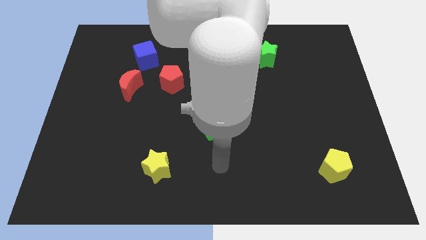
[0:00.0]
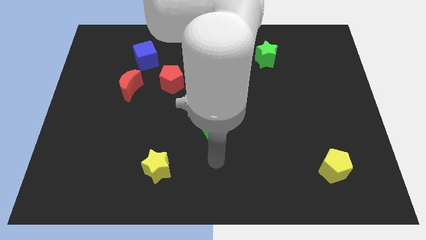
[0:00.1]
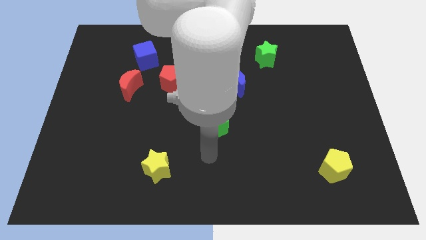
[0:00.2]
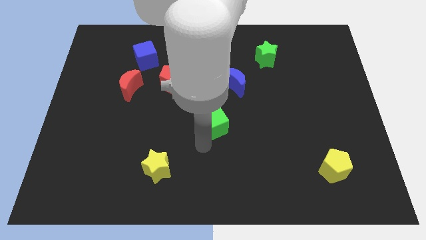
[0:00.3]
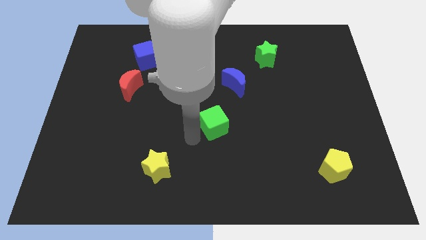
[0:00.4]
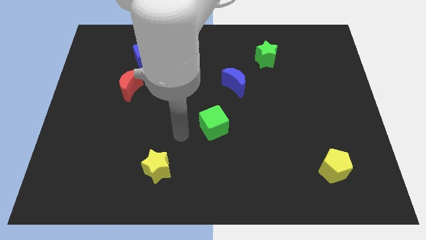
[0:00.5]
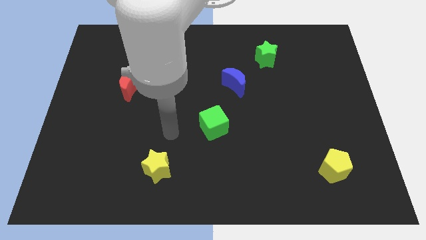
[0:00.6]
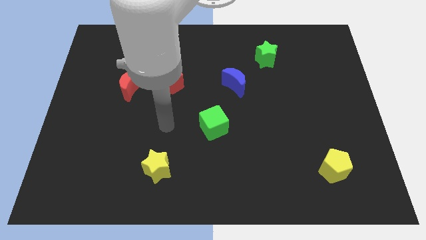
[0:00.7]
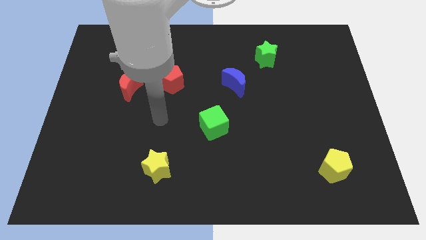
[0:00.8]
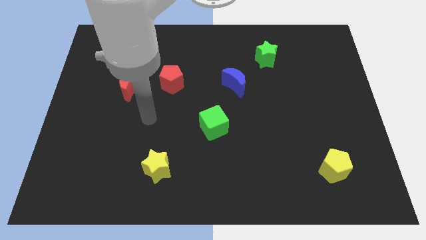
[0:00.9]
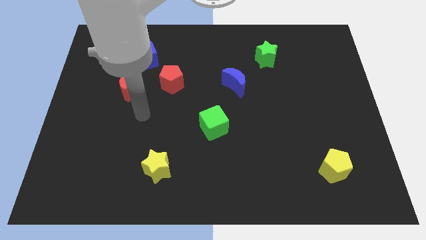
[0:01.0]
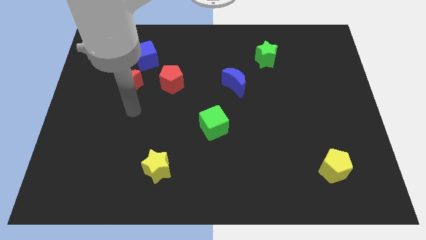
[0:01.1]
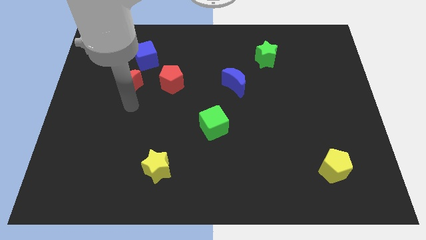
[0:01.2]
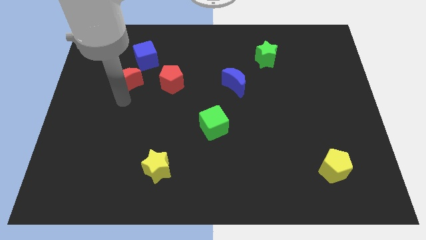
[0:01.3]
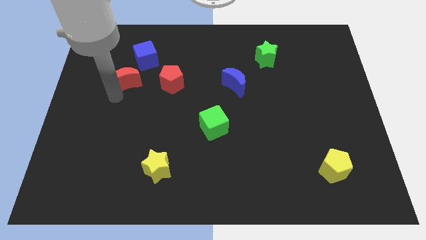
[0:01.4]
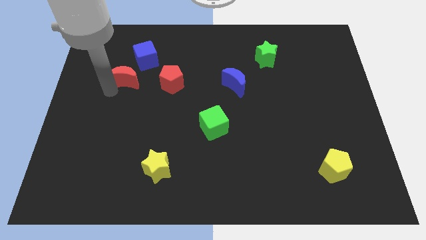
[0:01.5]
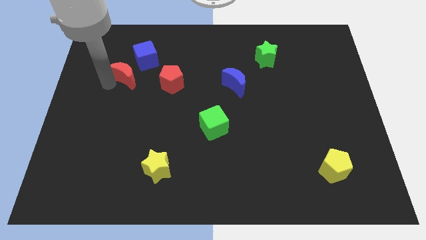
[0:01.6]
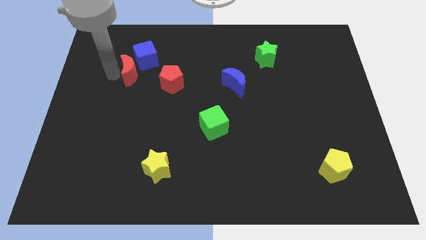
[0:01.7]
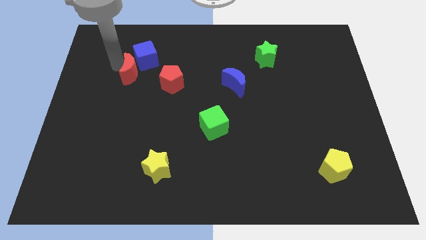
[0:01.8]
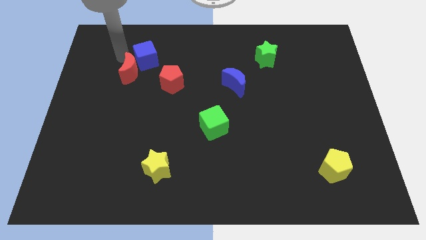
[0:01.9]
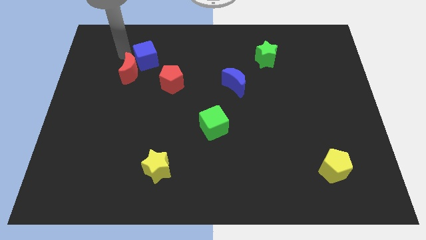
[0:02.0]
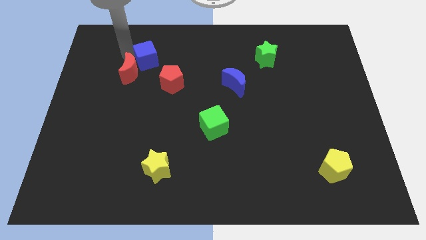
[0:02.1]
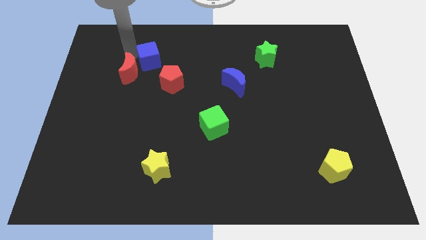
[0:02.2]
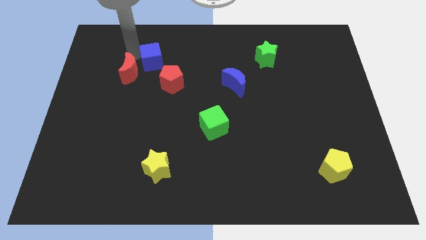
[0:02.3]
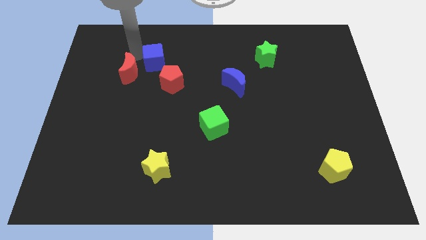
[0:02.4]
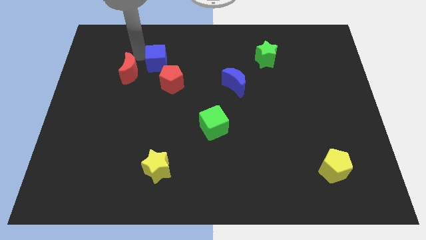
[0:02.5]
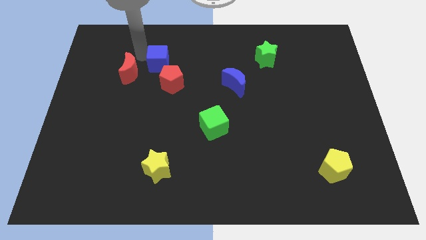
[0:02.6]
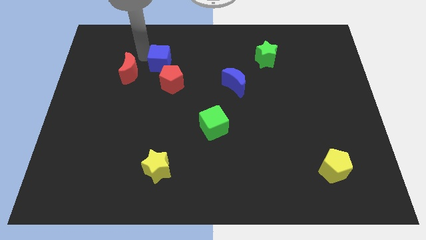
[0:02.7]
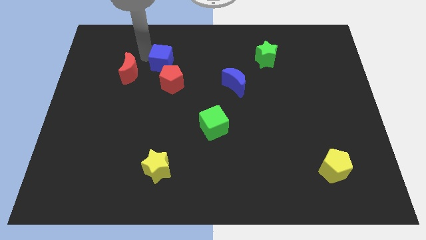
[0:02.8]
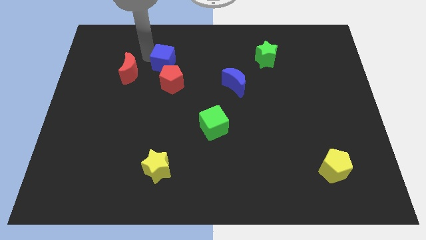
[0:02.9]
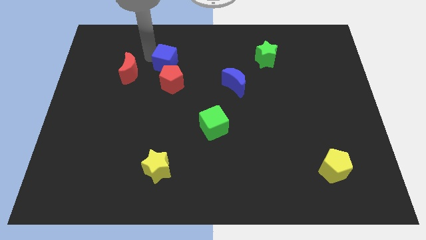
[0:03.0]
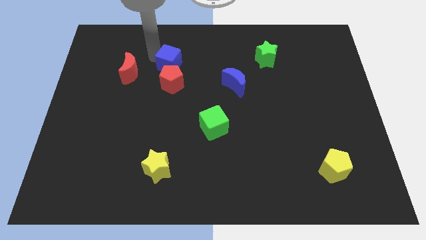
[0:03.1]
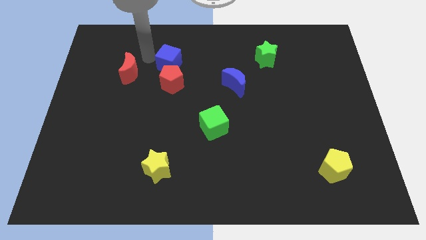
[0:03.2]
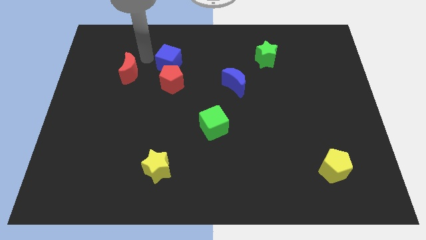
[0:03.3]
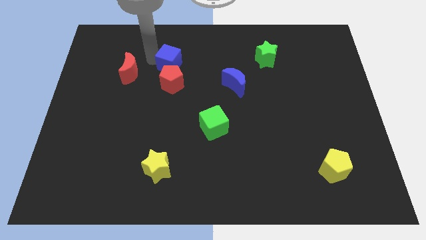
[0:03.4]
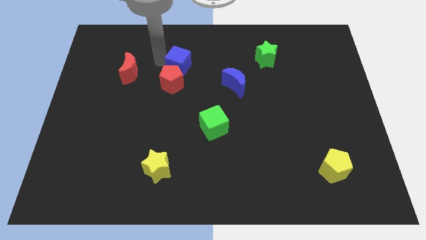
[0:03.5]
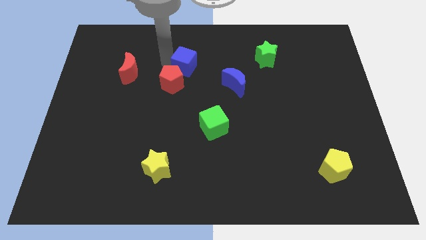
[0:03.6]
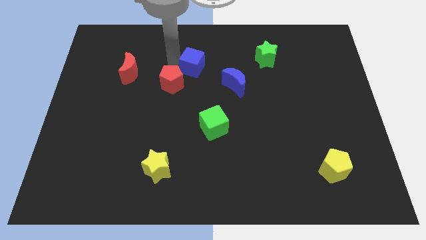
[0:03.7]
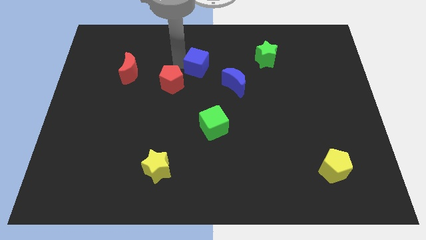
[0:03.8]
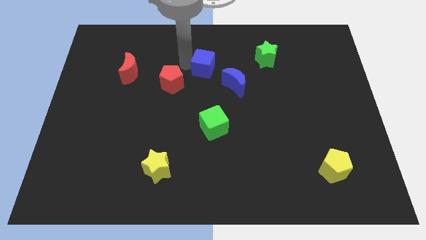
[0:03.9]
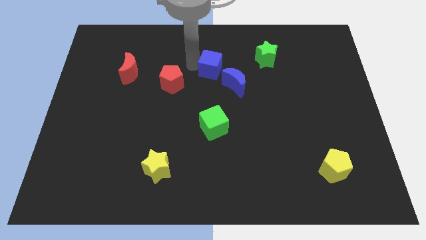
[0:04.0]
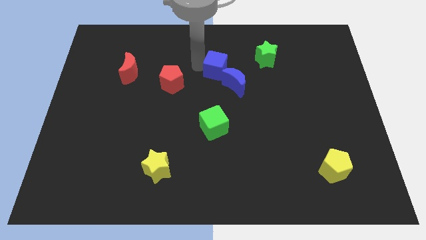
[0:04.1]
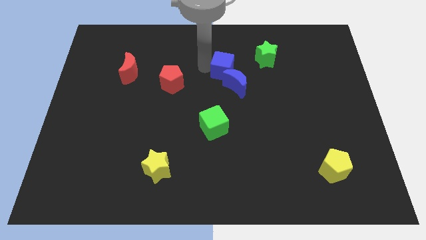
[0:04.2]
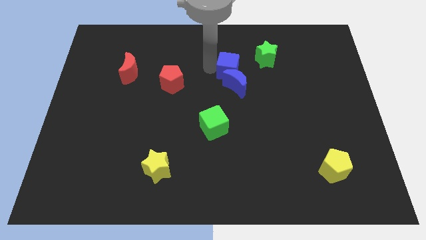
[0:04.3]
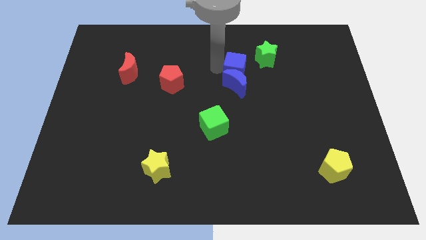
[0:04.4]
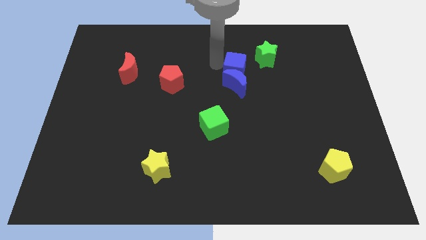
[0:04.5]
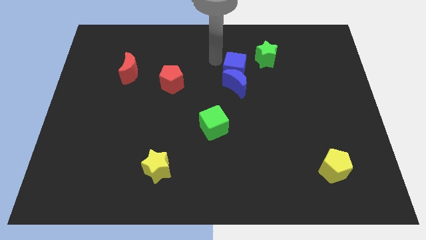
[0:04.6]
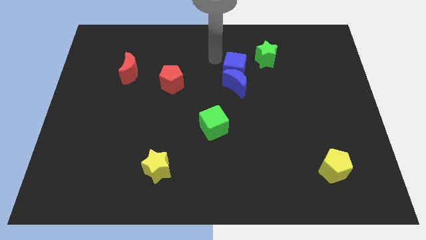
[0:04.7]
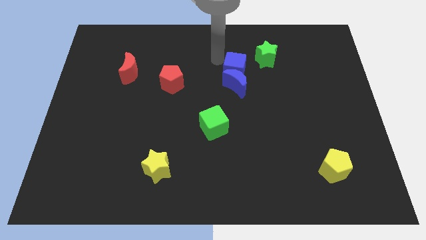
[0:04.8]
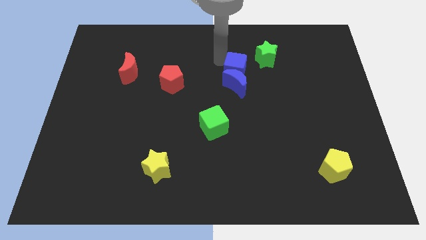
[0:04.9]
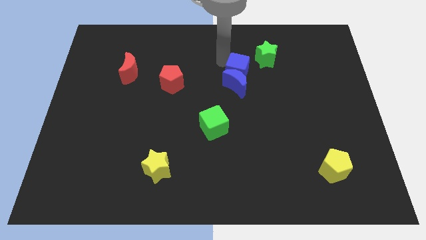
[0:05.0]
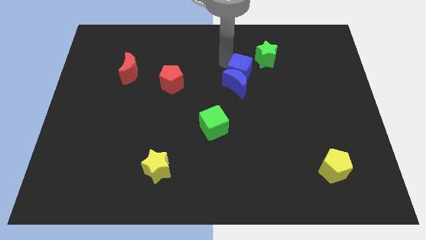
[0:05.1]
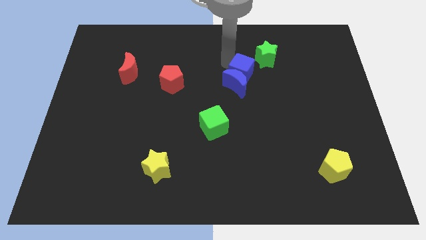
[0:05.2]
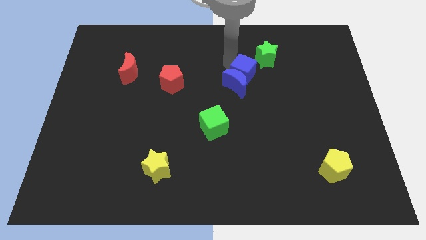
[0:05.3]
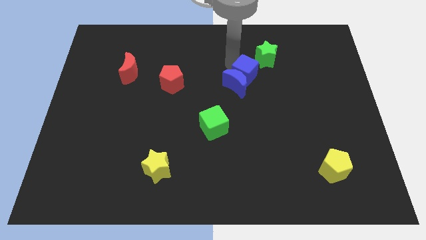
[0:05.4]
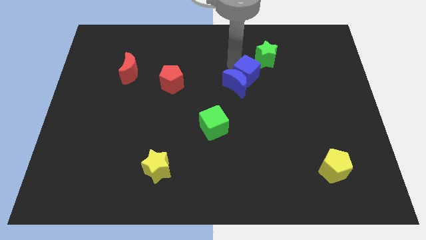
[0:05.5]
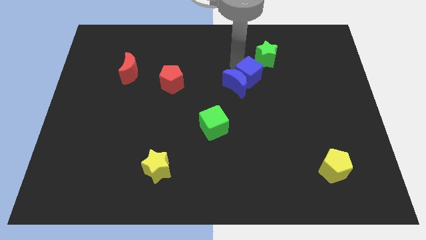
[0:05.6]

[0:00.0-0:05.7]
push the blue cube below the green star

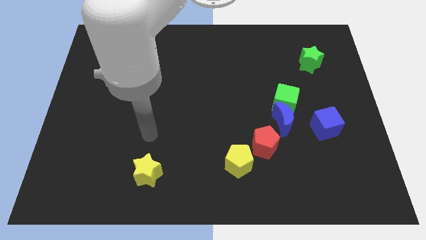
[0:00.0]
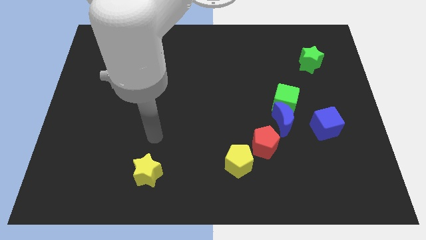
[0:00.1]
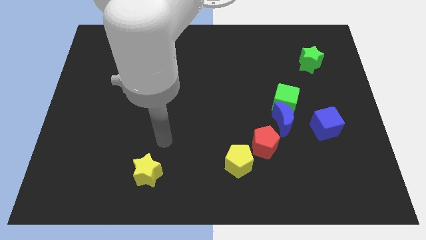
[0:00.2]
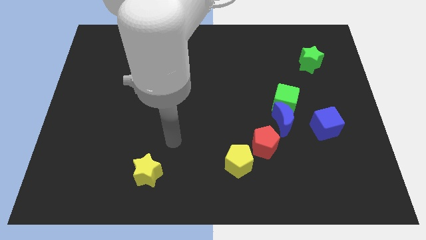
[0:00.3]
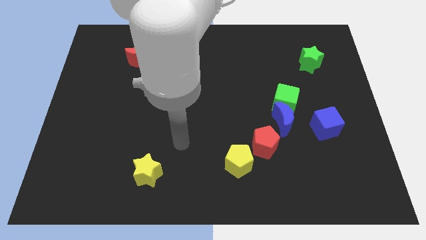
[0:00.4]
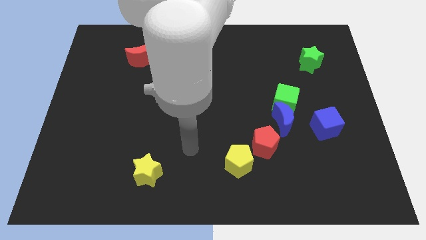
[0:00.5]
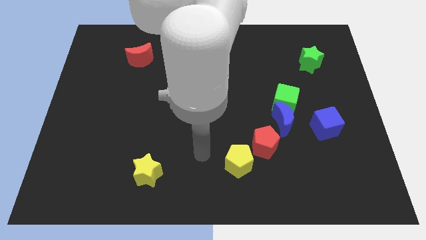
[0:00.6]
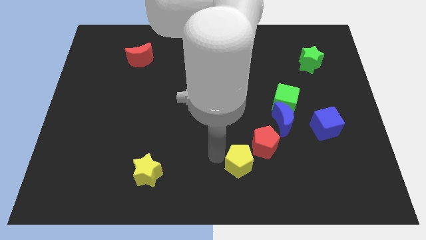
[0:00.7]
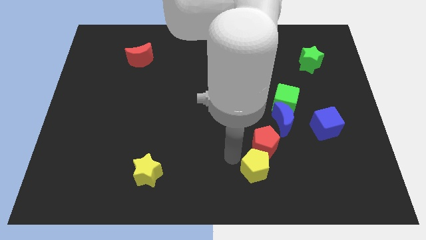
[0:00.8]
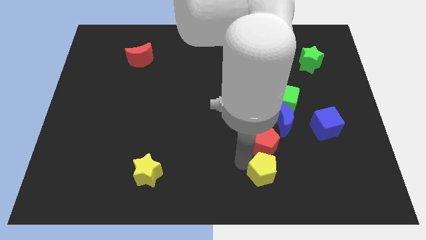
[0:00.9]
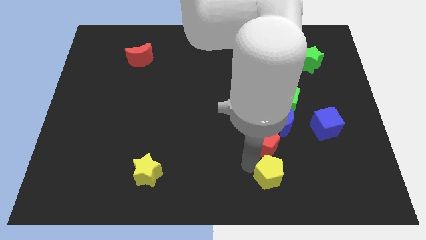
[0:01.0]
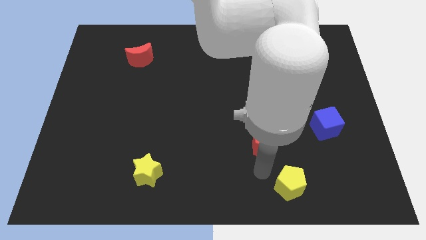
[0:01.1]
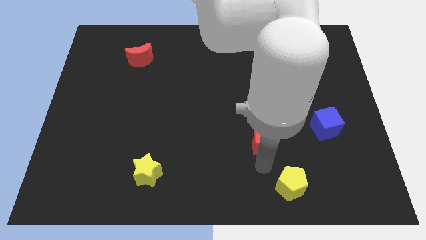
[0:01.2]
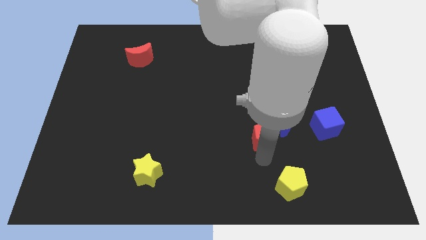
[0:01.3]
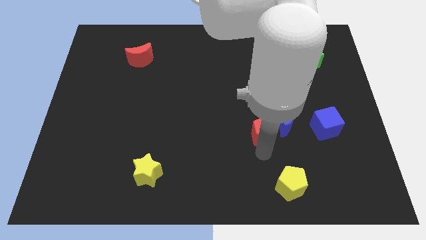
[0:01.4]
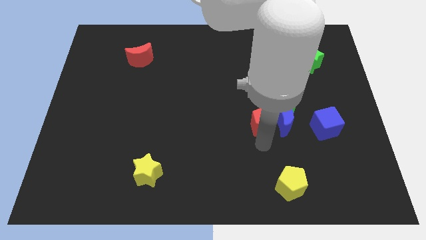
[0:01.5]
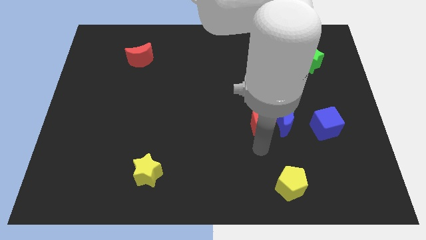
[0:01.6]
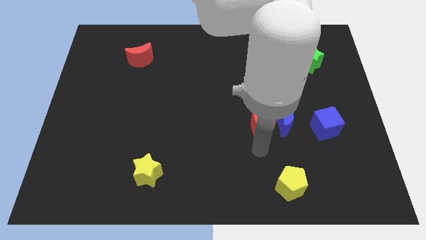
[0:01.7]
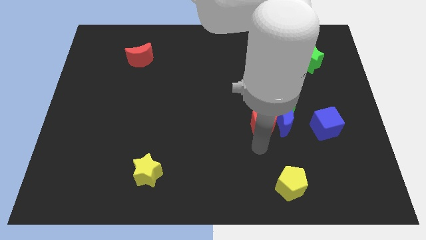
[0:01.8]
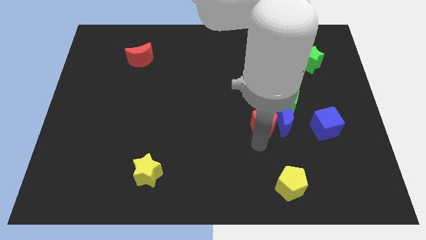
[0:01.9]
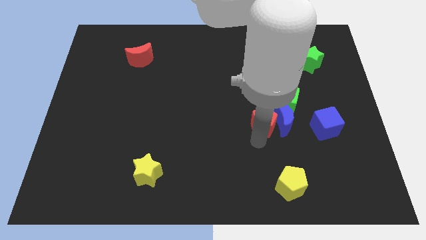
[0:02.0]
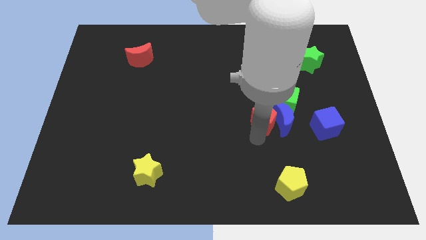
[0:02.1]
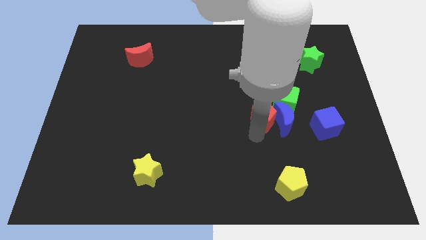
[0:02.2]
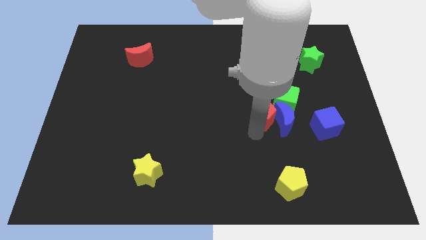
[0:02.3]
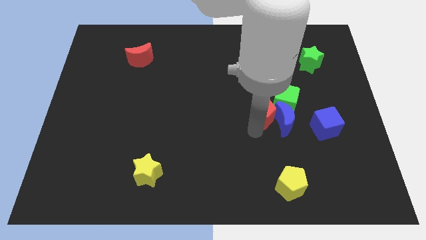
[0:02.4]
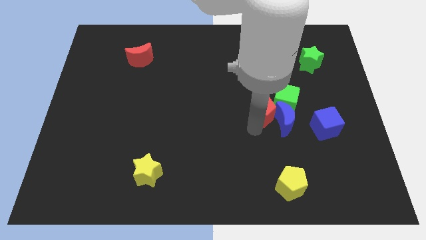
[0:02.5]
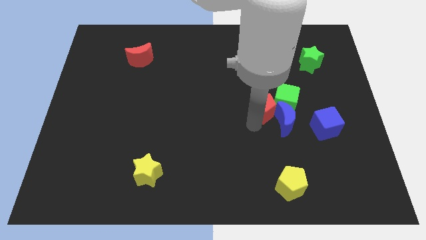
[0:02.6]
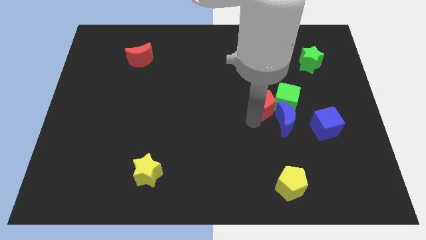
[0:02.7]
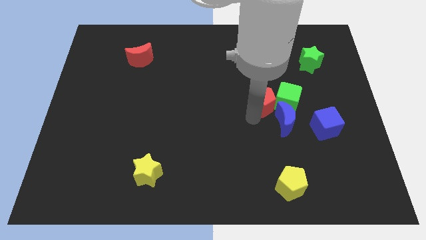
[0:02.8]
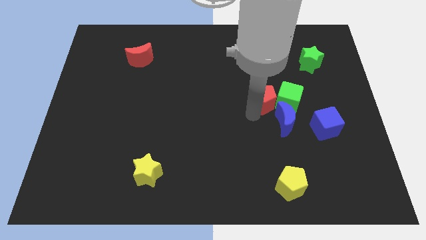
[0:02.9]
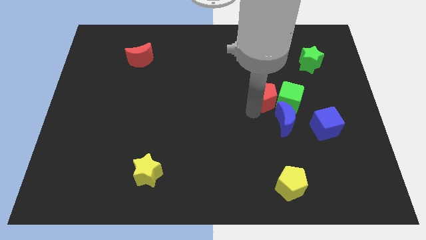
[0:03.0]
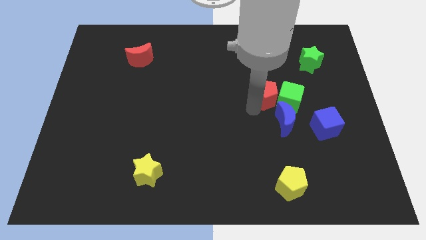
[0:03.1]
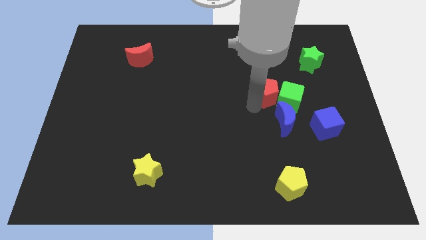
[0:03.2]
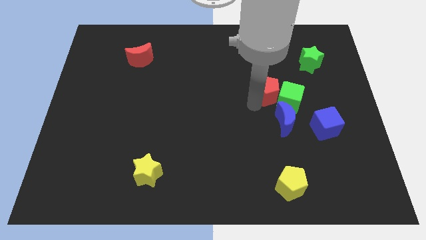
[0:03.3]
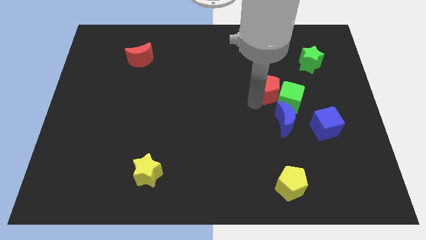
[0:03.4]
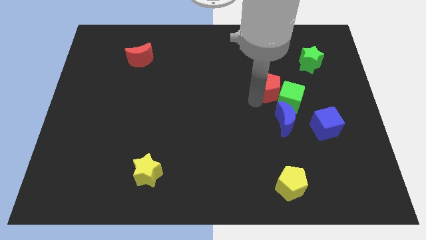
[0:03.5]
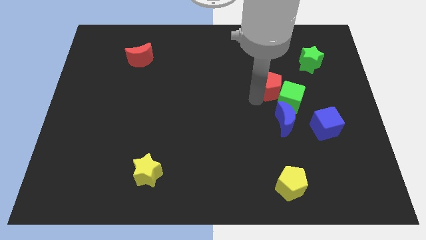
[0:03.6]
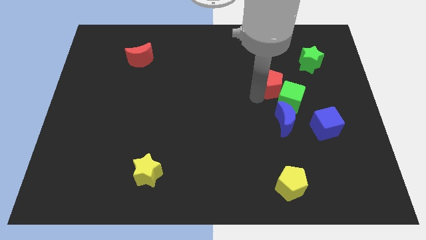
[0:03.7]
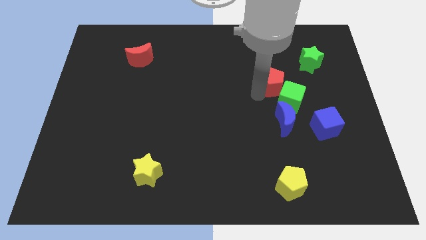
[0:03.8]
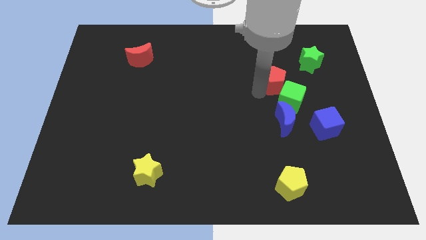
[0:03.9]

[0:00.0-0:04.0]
push the red pentagon diagonally down and to the left of the green star
